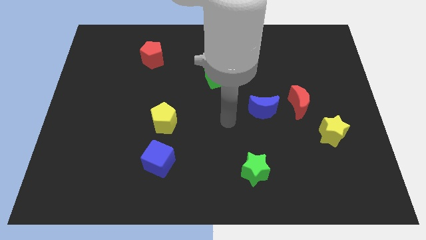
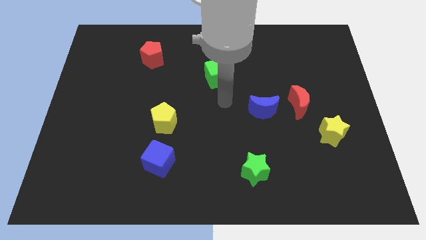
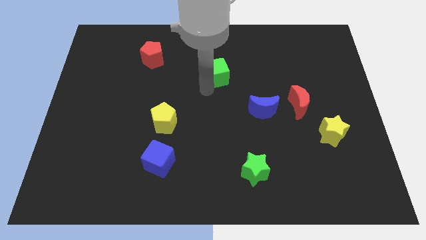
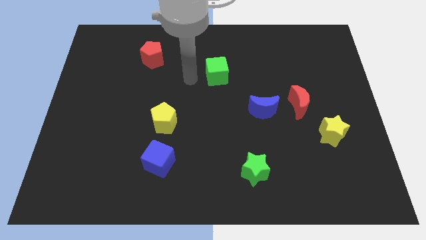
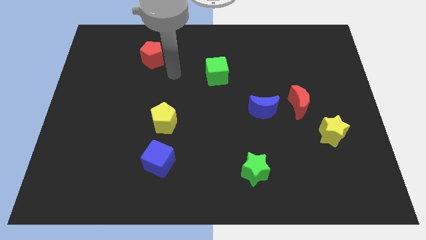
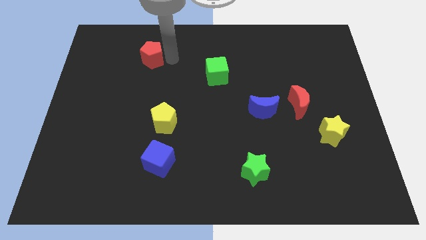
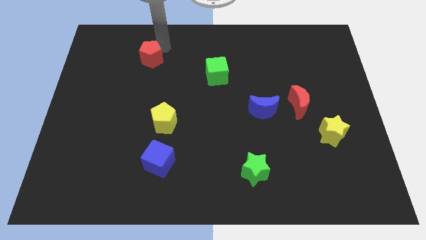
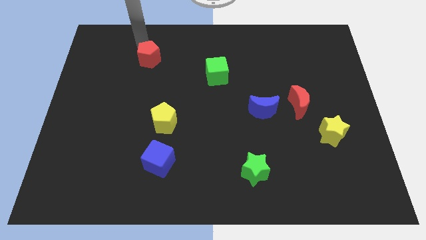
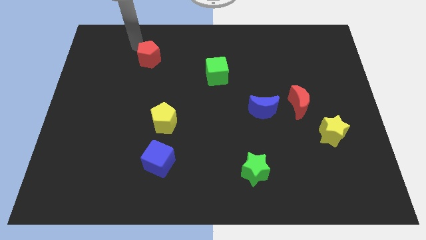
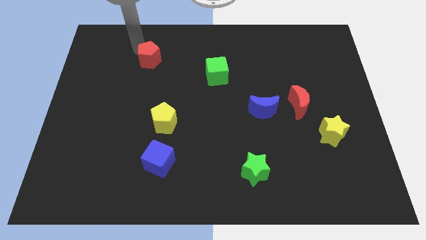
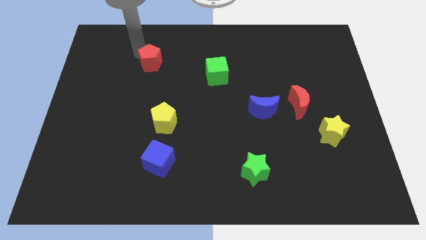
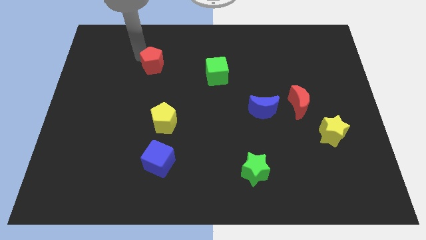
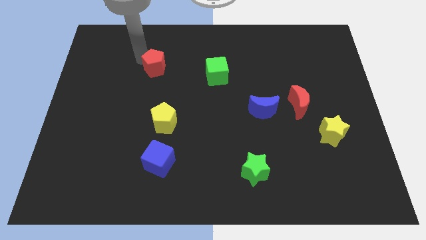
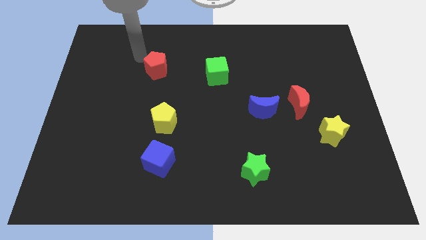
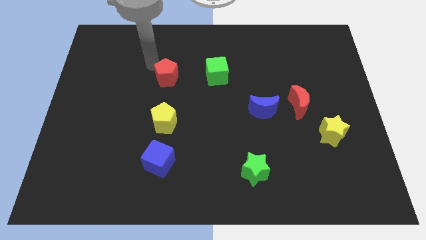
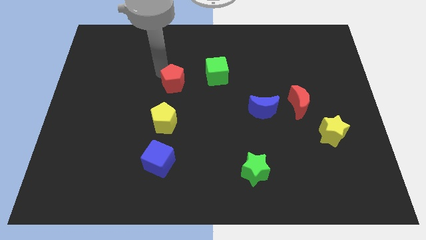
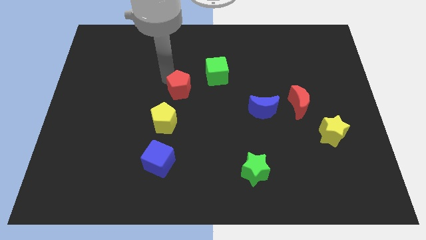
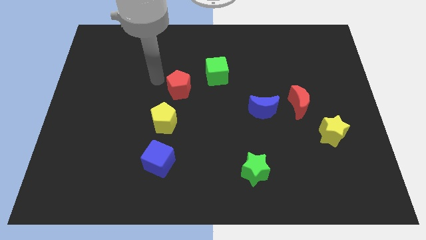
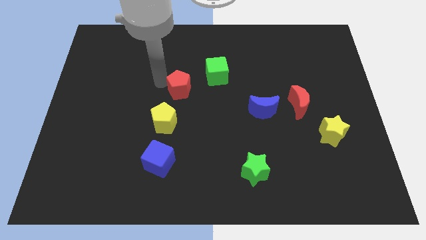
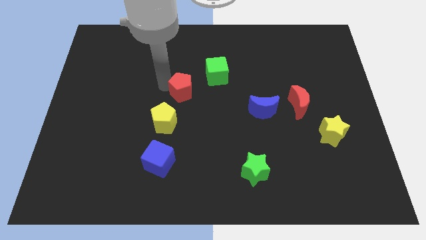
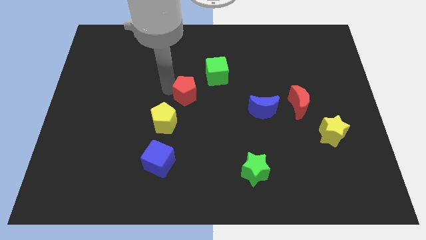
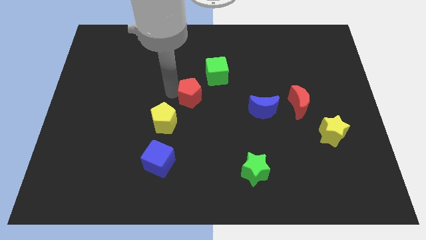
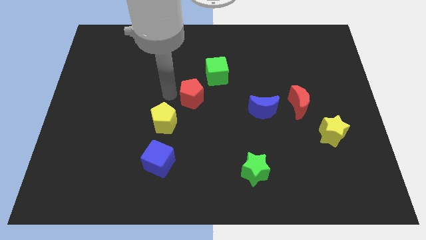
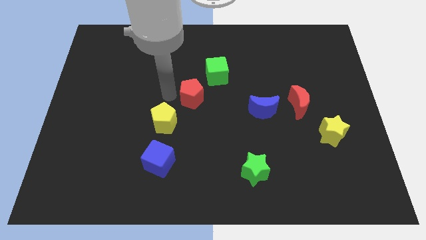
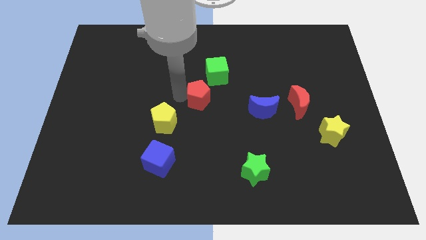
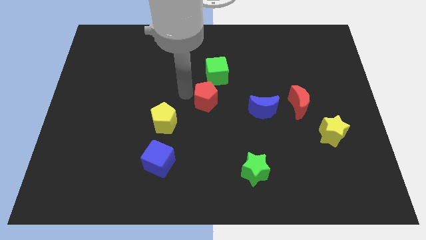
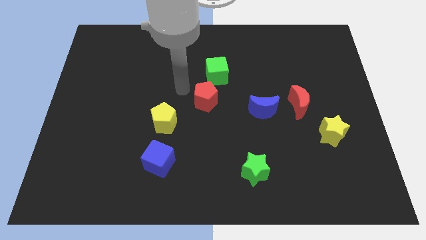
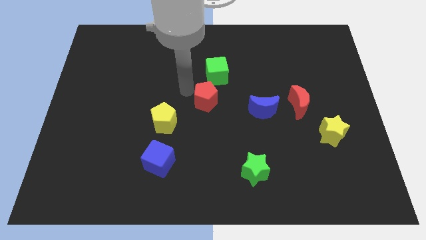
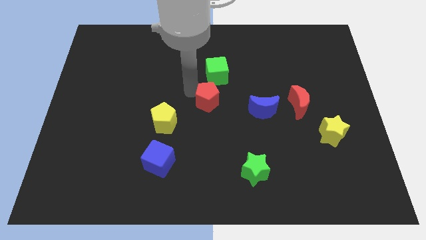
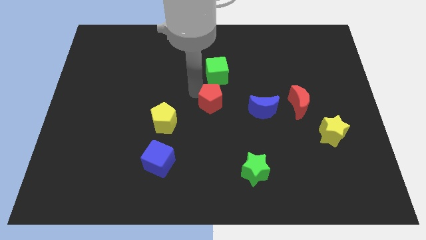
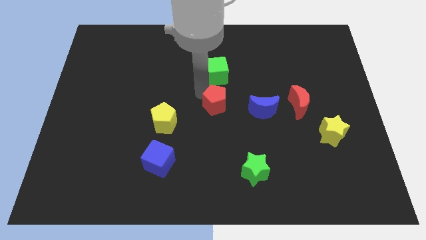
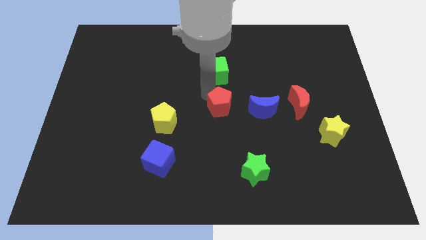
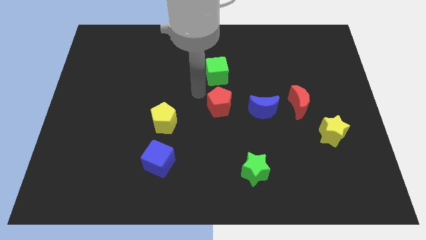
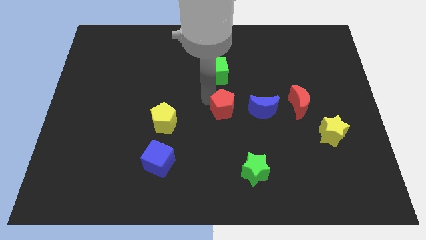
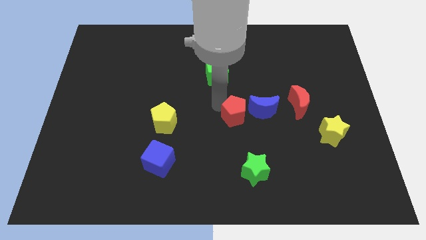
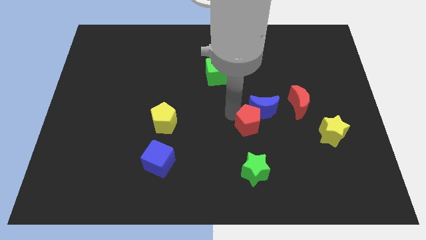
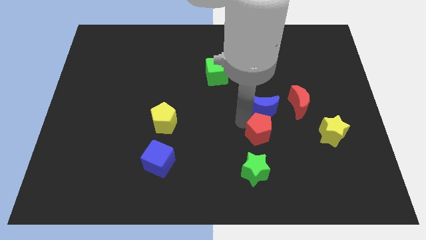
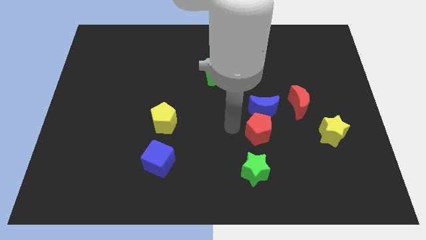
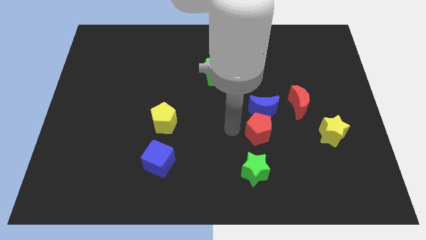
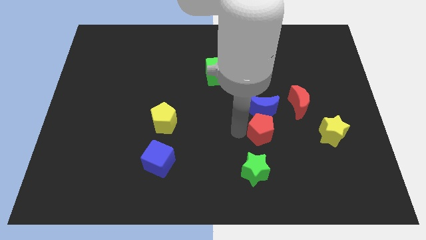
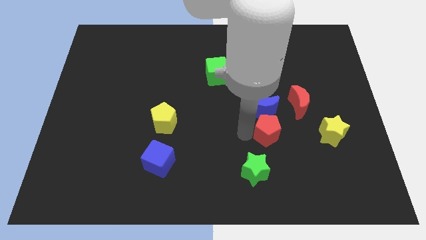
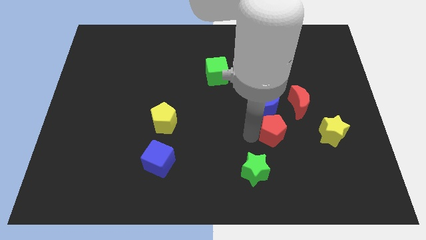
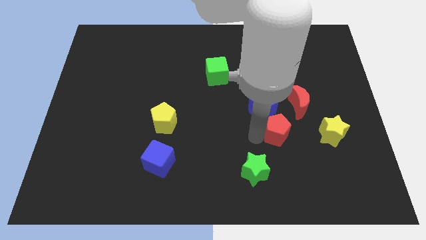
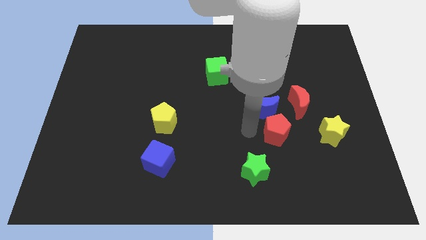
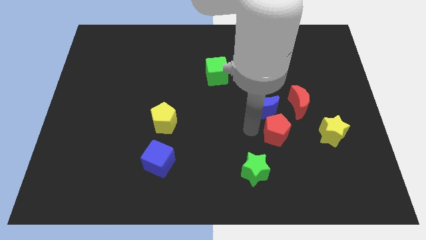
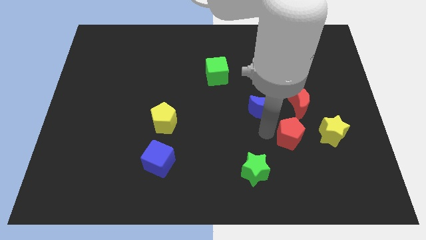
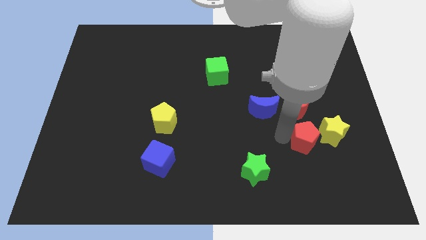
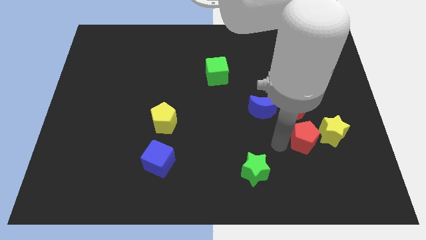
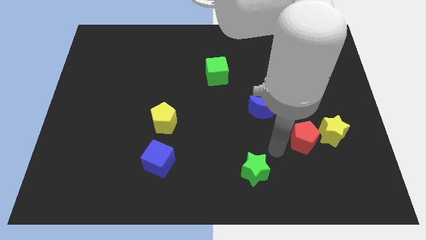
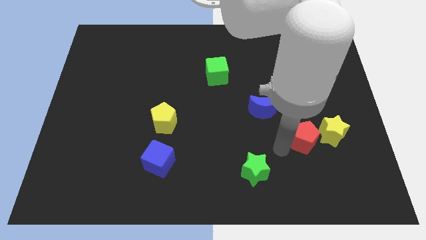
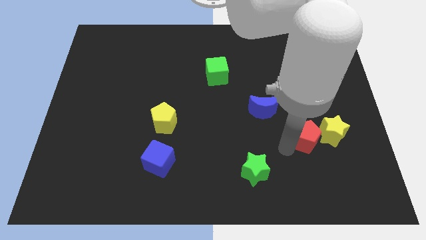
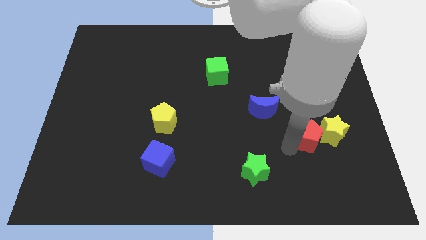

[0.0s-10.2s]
put the red pentagon next to the yellow star

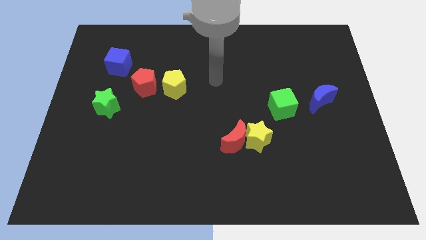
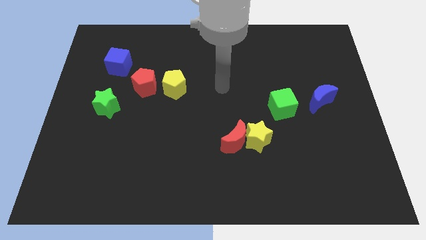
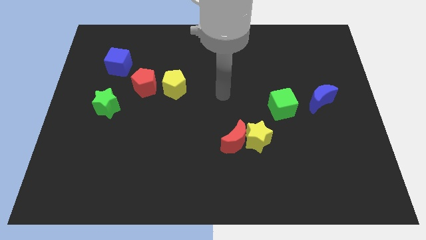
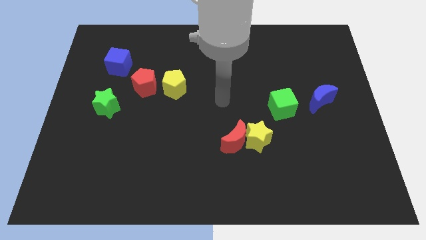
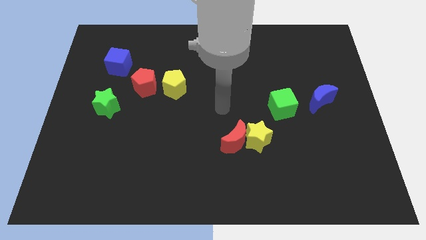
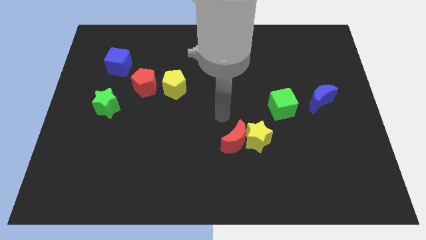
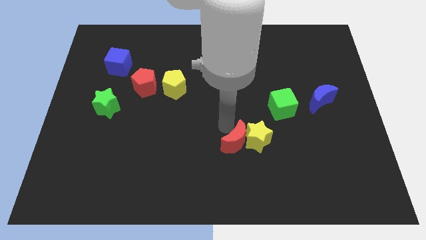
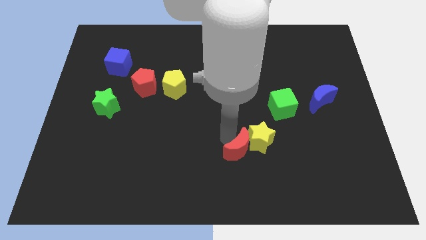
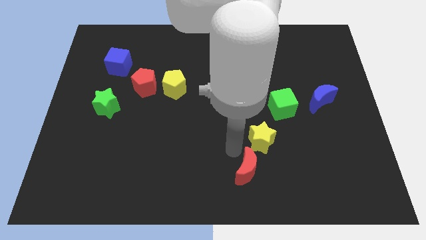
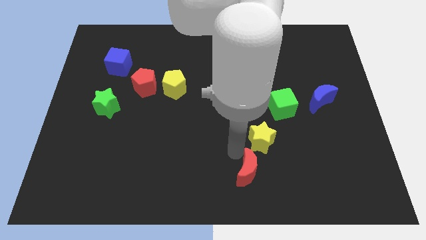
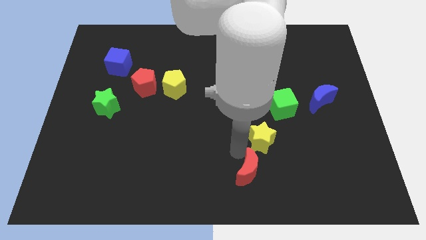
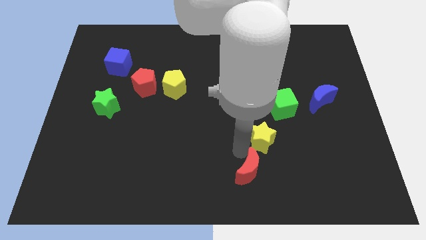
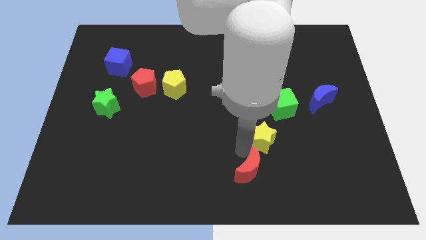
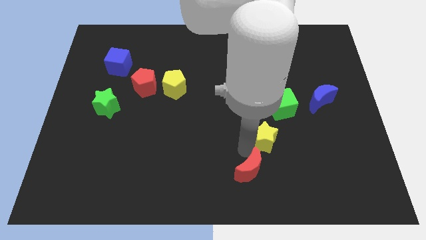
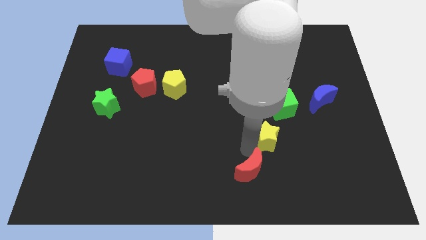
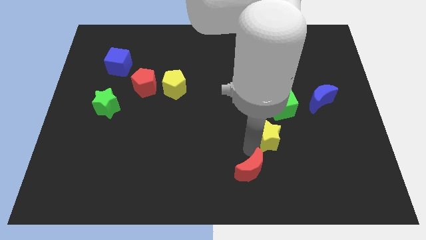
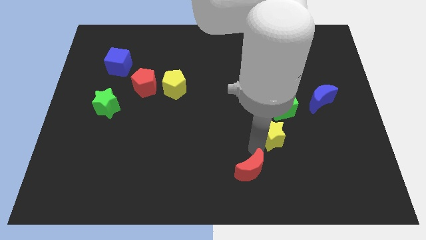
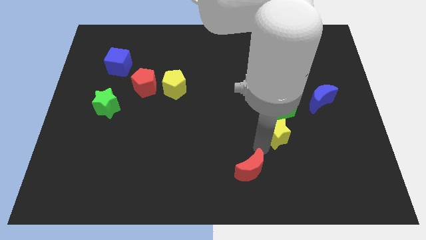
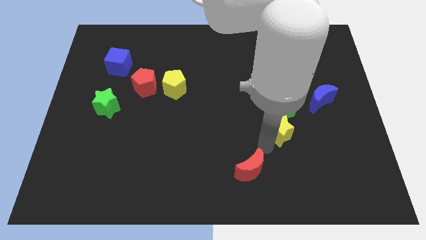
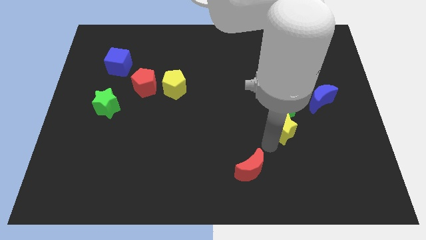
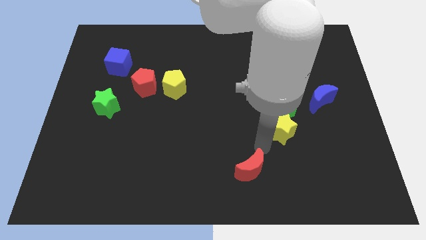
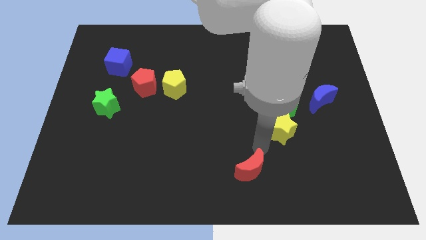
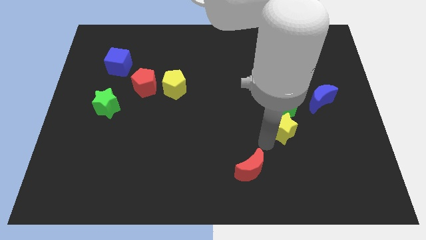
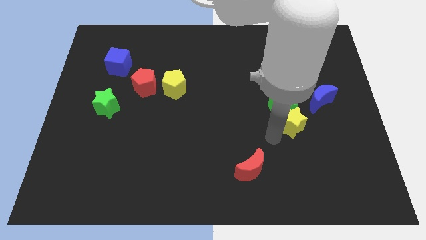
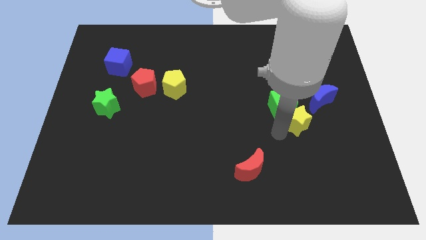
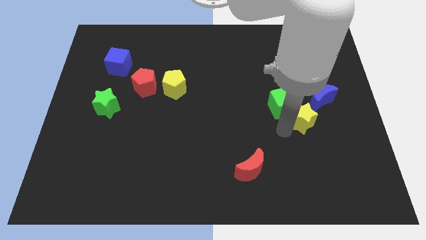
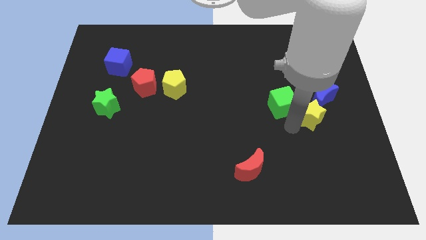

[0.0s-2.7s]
move the yellow star close to the blue moon
